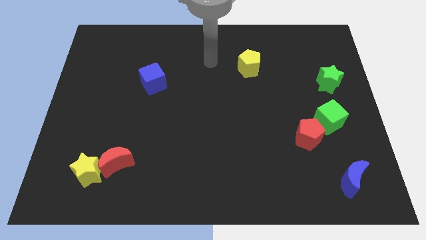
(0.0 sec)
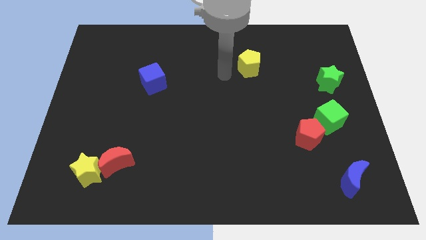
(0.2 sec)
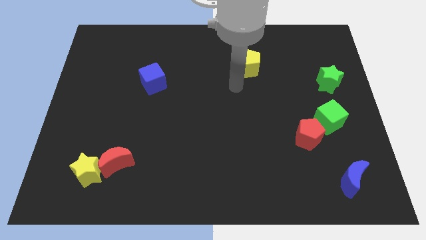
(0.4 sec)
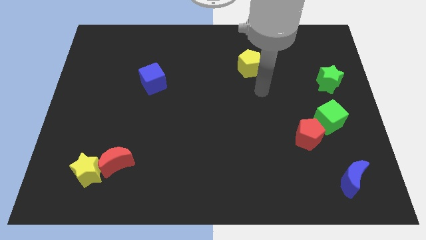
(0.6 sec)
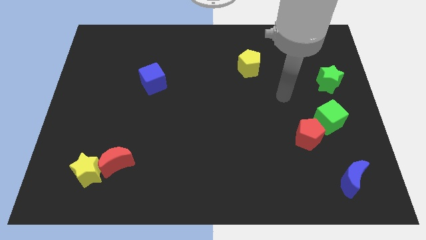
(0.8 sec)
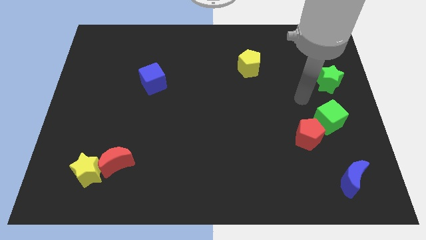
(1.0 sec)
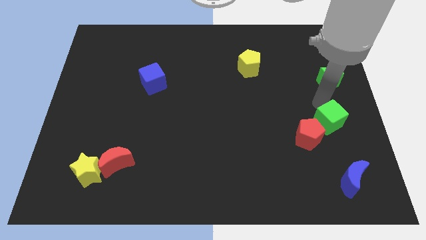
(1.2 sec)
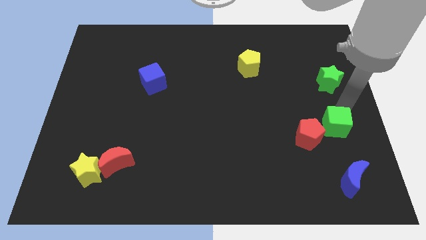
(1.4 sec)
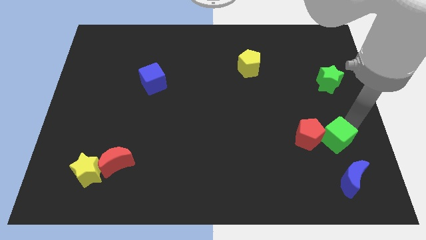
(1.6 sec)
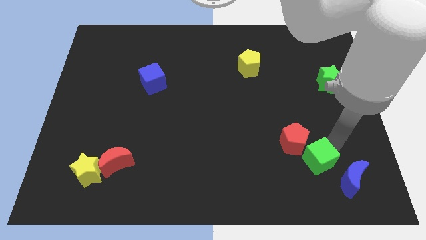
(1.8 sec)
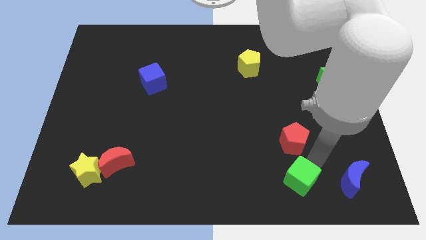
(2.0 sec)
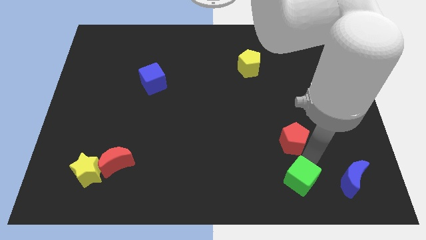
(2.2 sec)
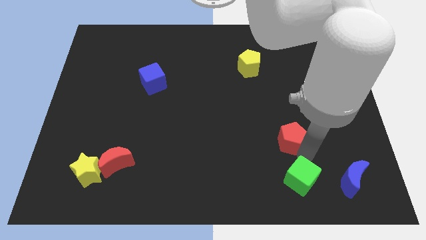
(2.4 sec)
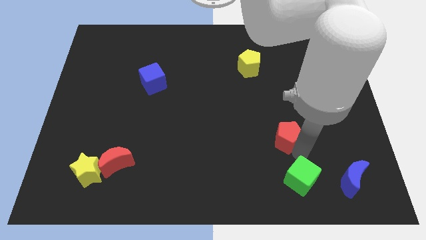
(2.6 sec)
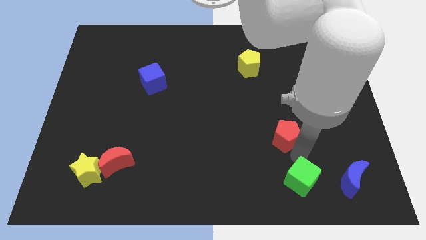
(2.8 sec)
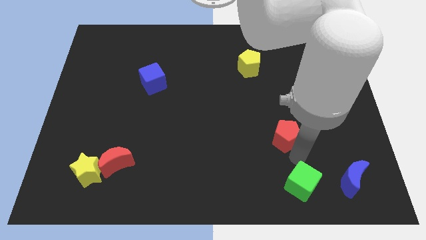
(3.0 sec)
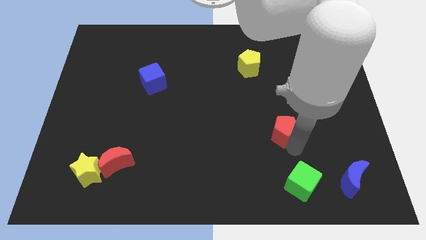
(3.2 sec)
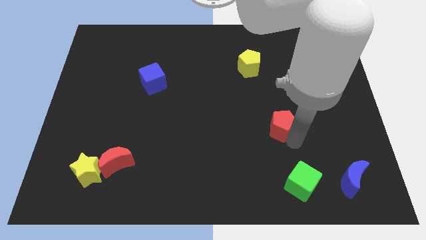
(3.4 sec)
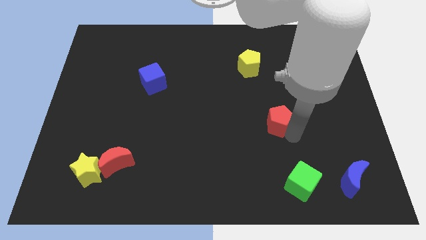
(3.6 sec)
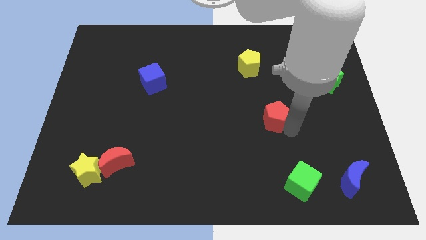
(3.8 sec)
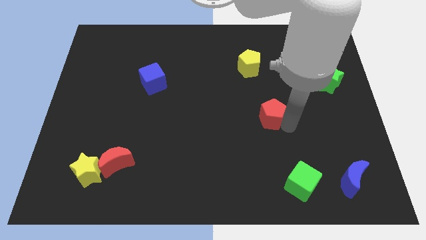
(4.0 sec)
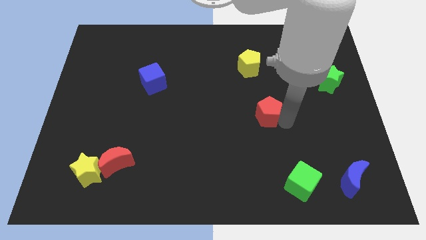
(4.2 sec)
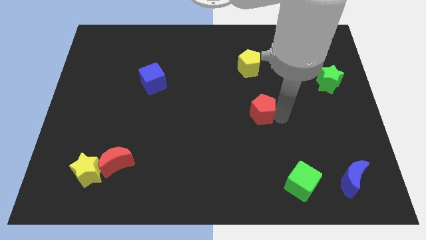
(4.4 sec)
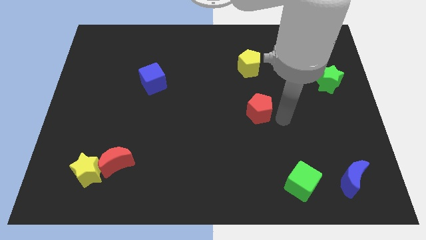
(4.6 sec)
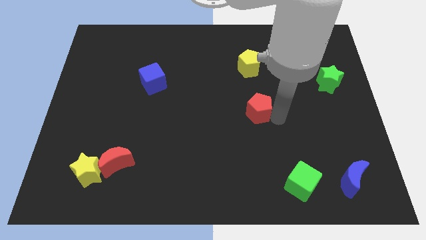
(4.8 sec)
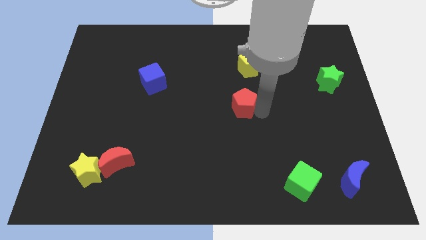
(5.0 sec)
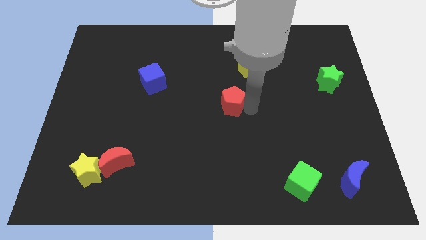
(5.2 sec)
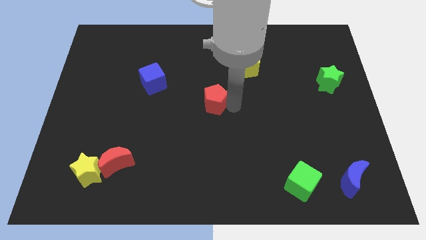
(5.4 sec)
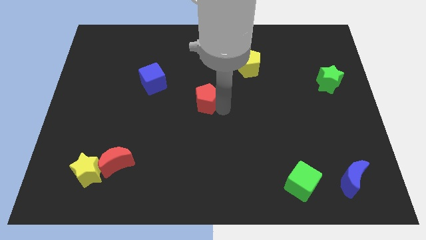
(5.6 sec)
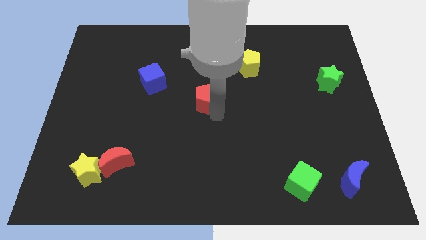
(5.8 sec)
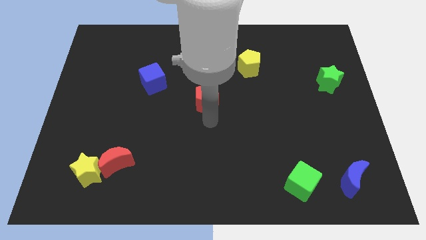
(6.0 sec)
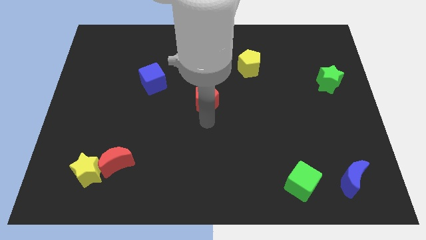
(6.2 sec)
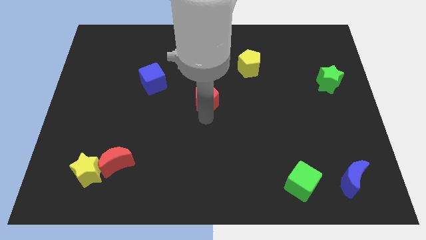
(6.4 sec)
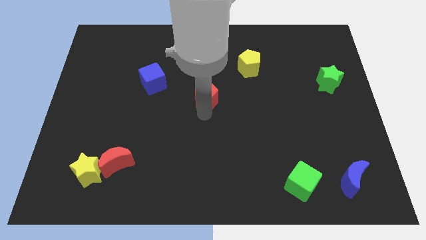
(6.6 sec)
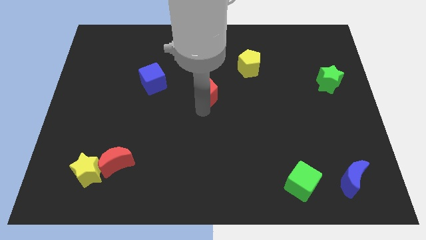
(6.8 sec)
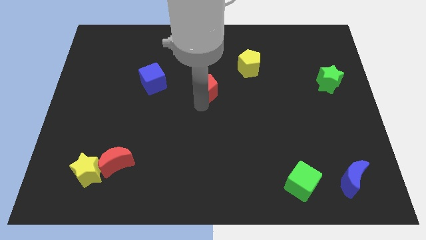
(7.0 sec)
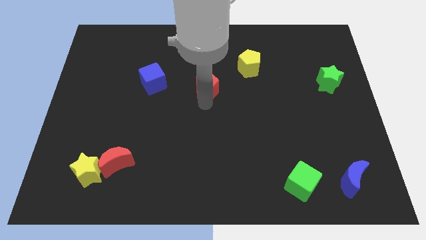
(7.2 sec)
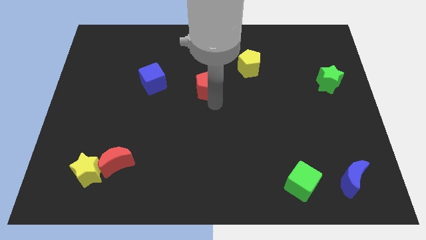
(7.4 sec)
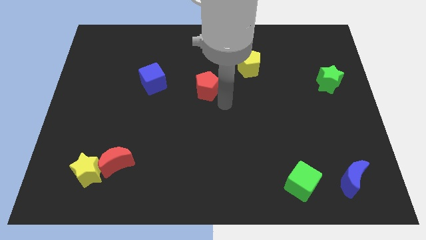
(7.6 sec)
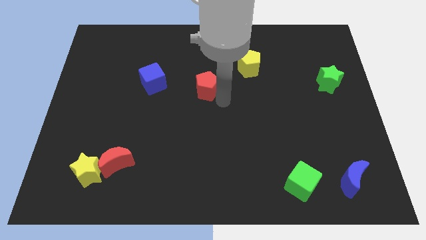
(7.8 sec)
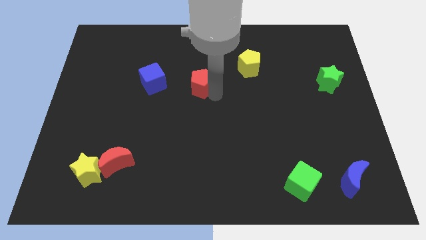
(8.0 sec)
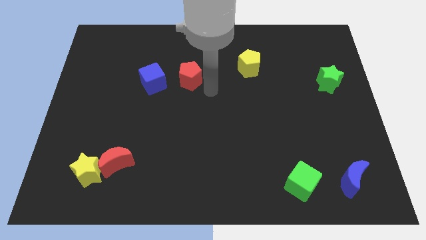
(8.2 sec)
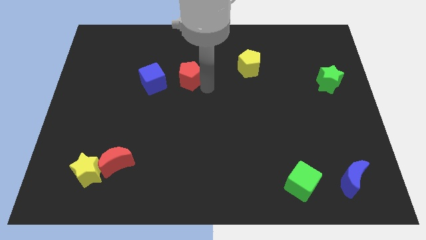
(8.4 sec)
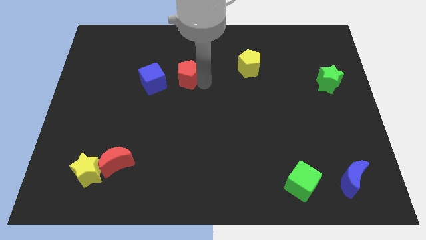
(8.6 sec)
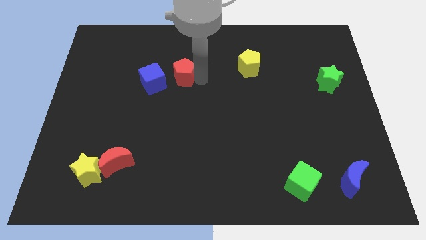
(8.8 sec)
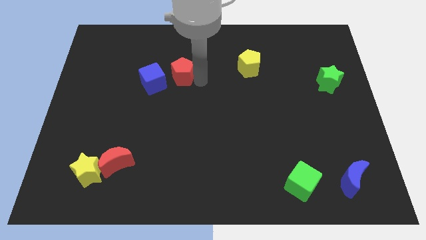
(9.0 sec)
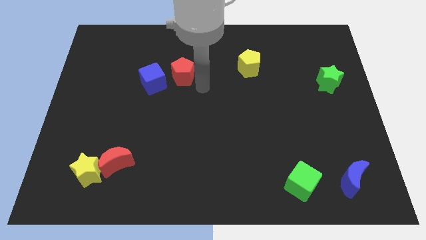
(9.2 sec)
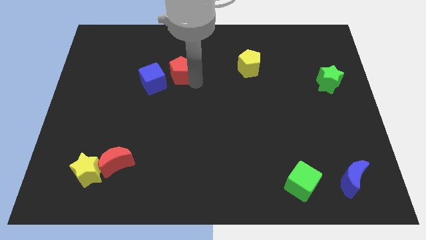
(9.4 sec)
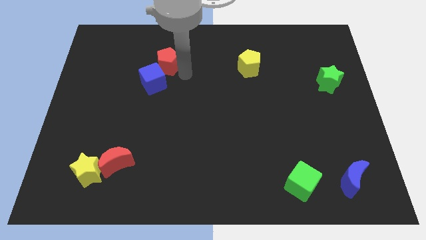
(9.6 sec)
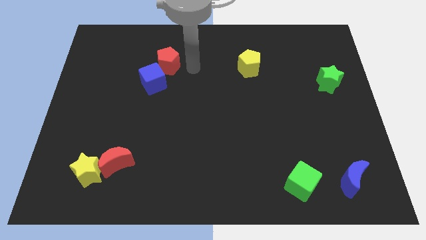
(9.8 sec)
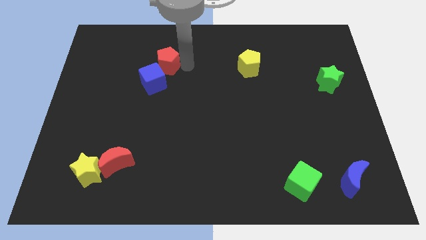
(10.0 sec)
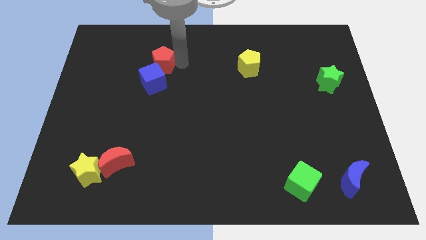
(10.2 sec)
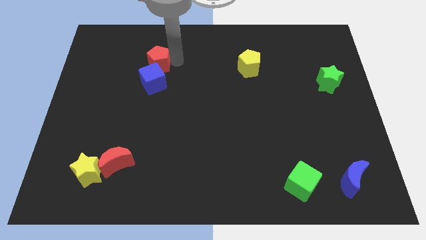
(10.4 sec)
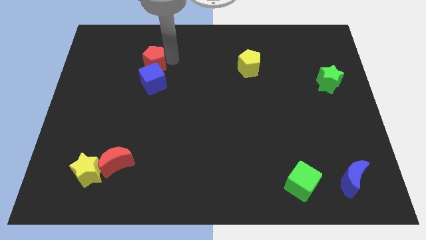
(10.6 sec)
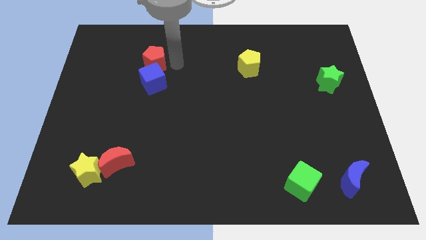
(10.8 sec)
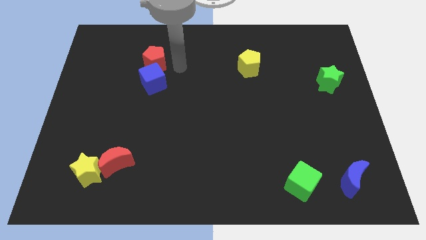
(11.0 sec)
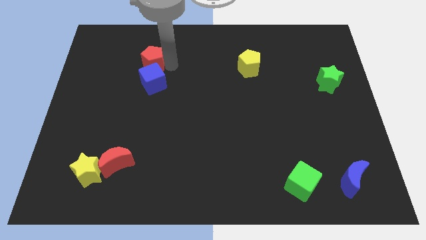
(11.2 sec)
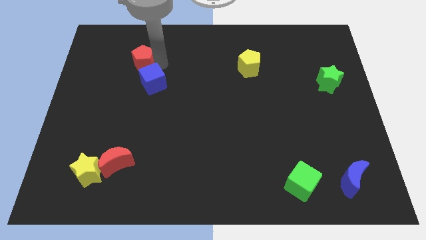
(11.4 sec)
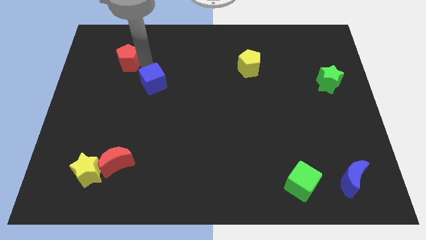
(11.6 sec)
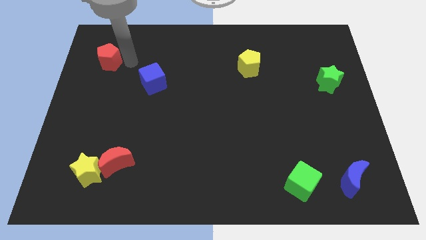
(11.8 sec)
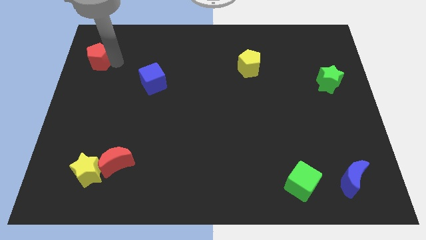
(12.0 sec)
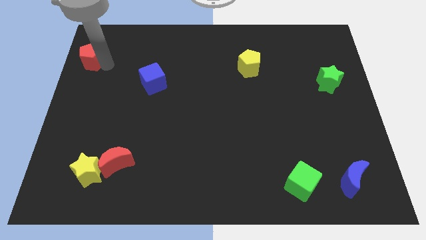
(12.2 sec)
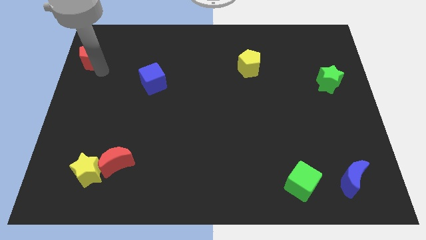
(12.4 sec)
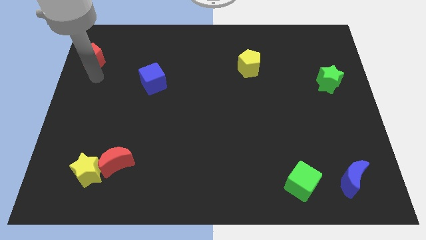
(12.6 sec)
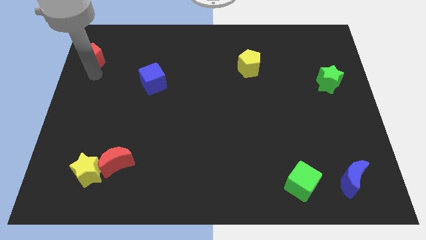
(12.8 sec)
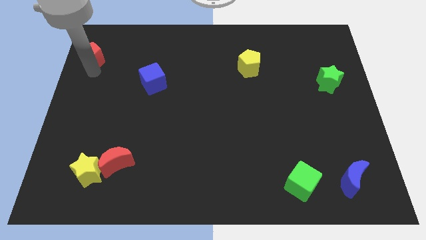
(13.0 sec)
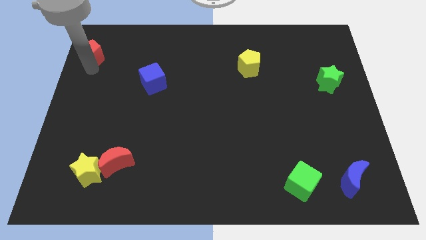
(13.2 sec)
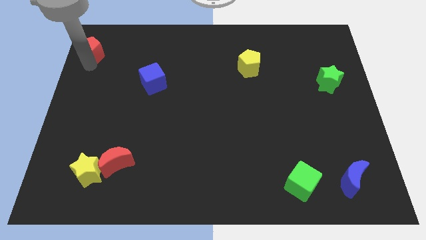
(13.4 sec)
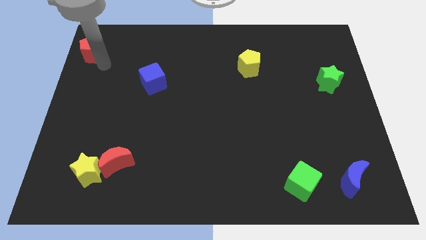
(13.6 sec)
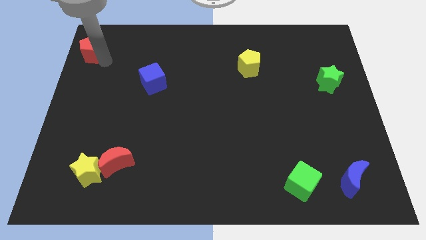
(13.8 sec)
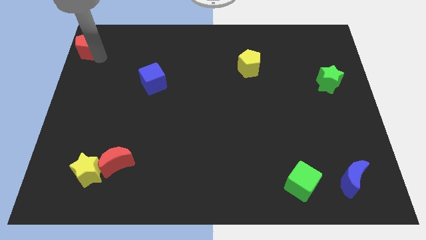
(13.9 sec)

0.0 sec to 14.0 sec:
push the red pentagon to the upper left corner
